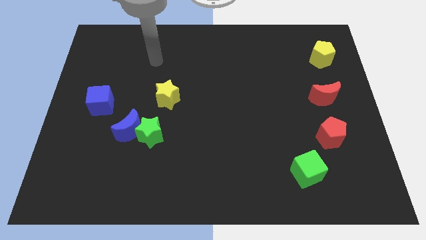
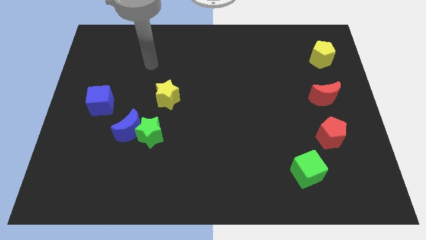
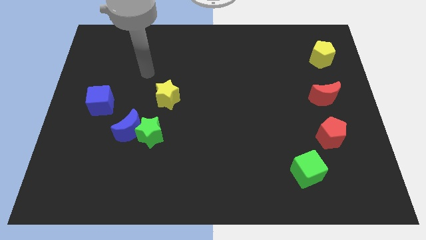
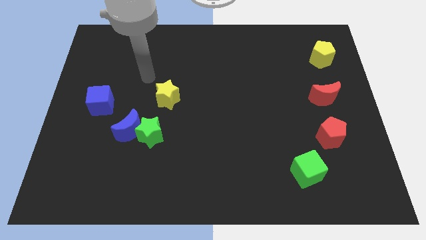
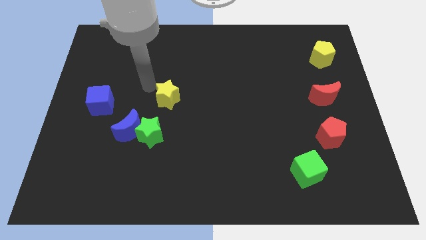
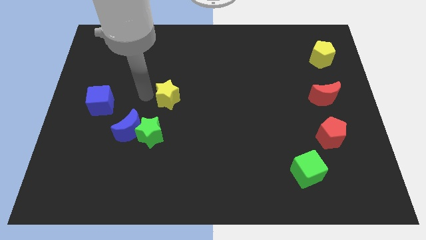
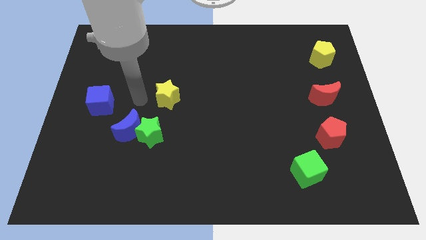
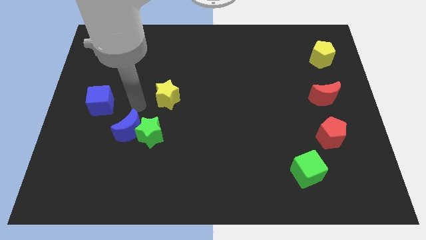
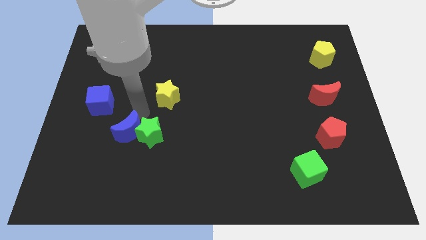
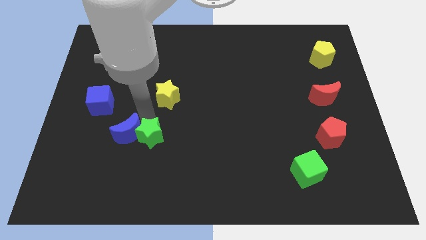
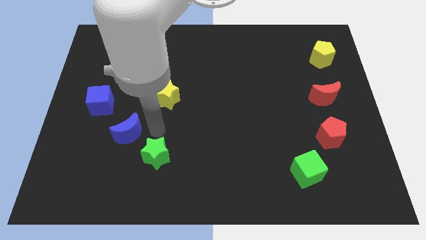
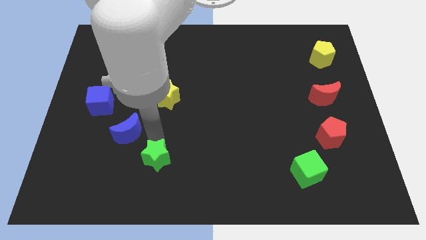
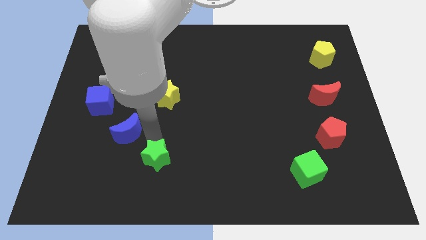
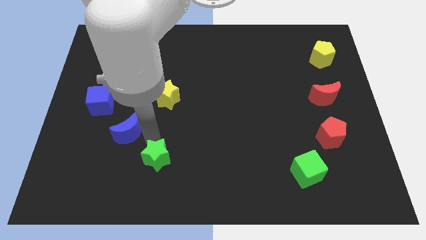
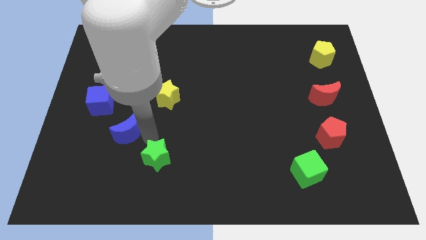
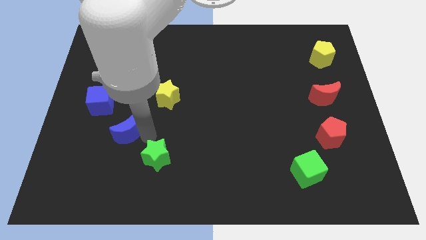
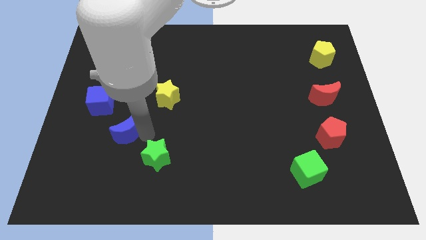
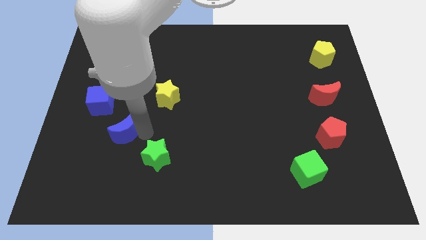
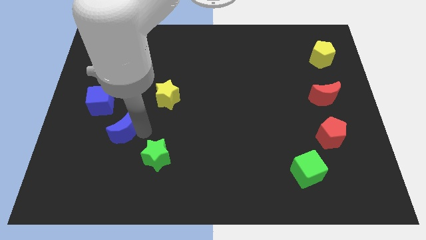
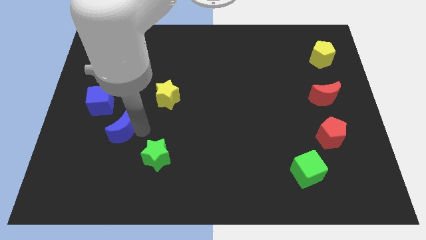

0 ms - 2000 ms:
move the blue moon away from the green star

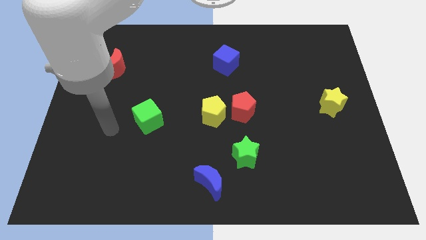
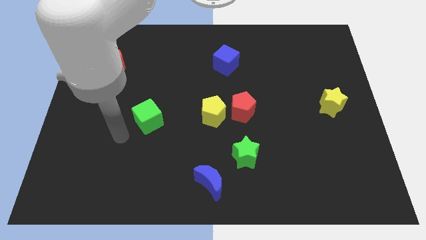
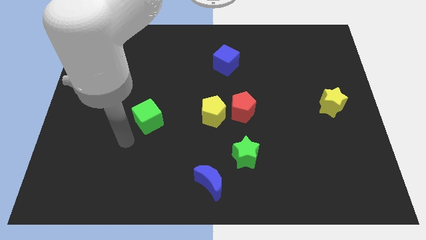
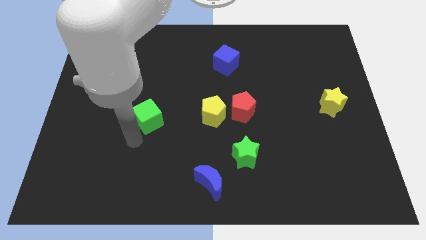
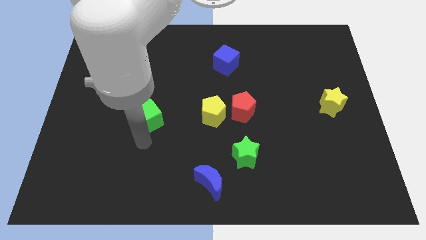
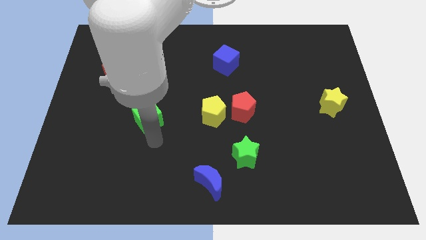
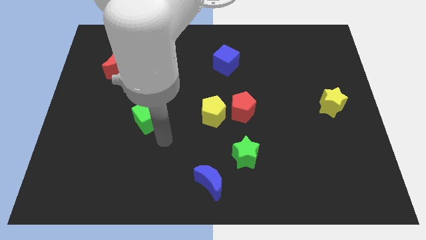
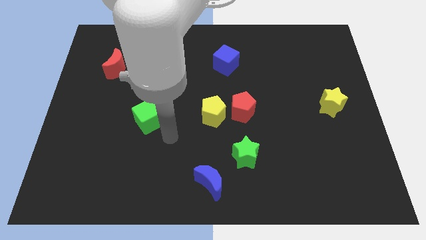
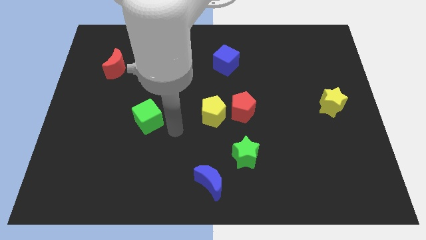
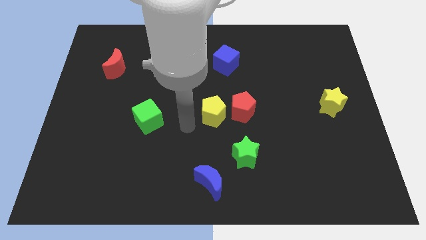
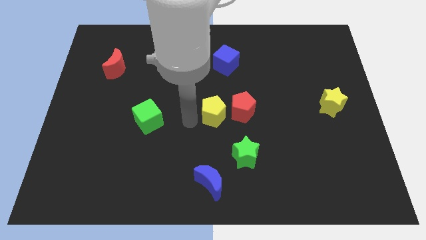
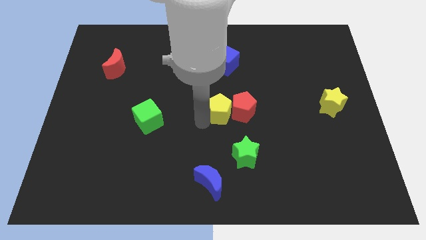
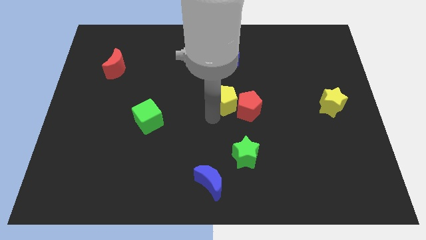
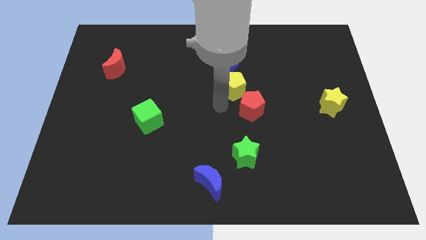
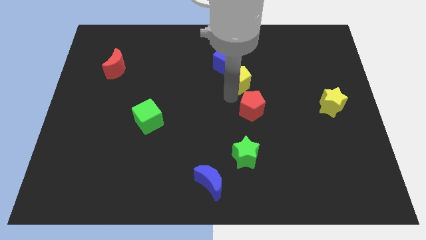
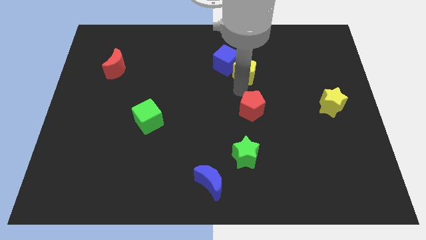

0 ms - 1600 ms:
move the red pentagon away from the yellow pentagon

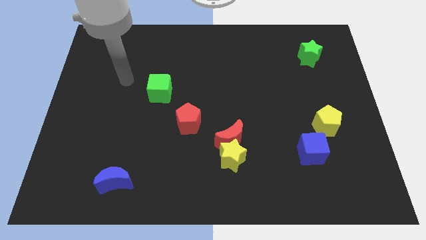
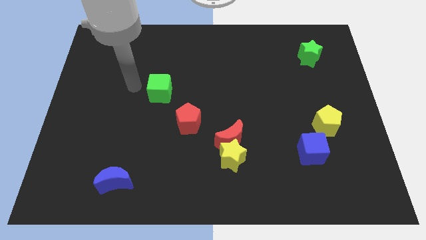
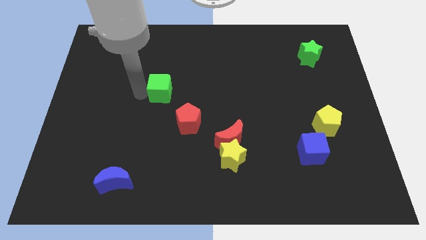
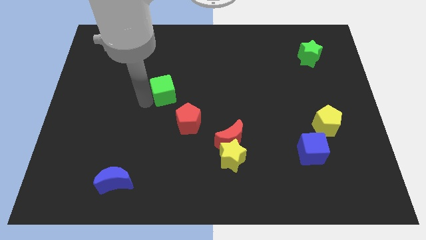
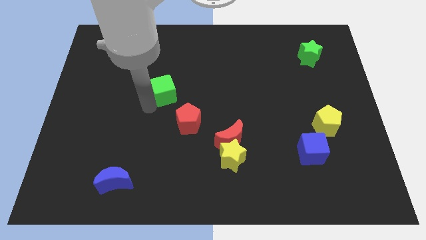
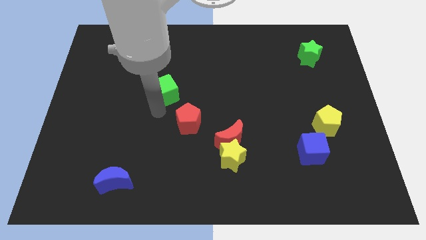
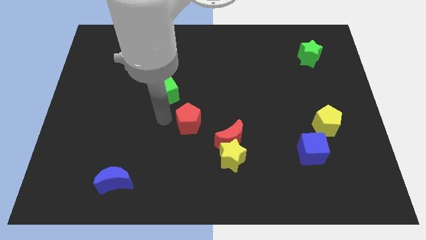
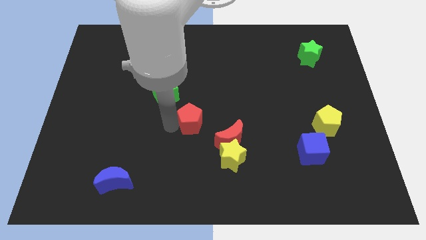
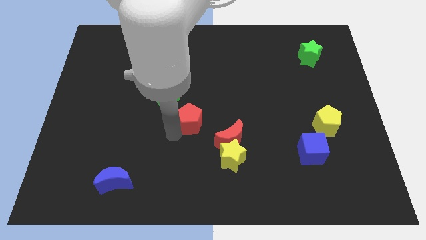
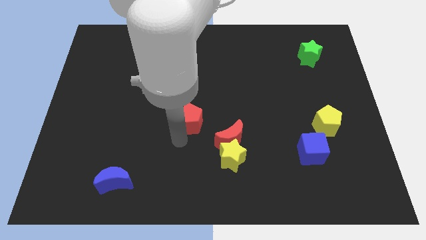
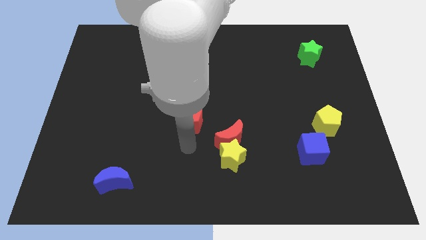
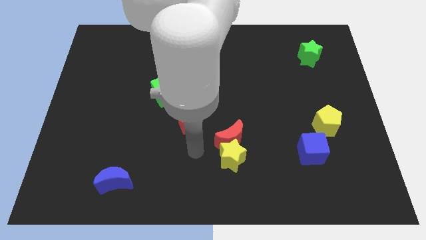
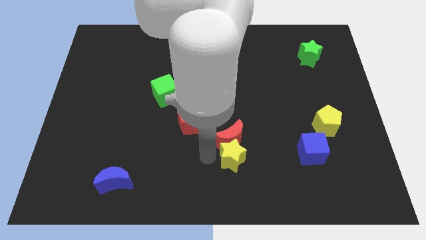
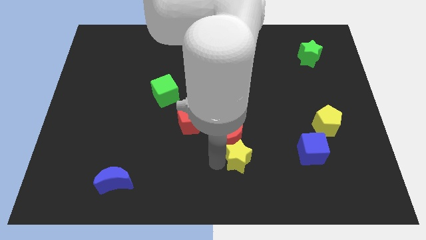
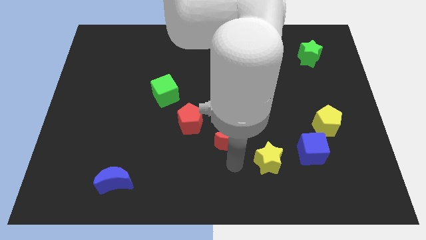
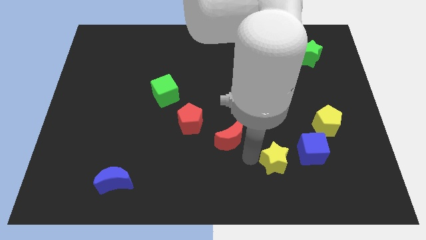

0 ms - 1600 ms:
move the red moon away from the yellow star

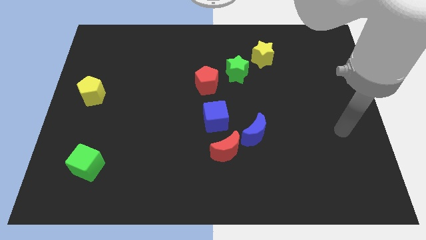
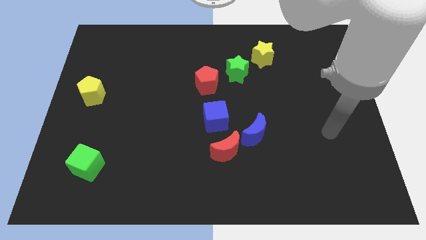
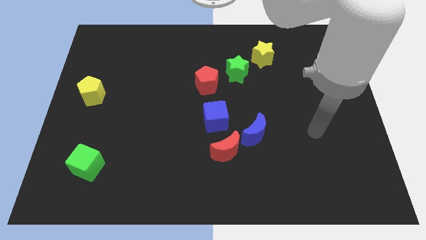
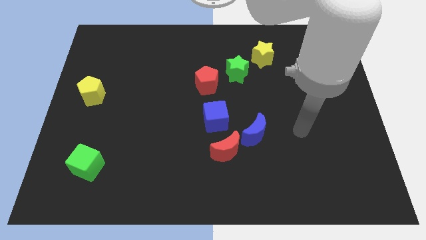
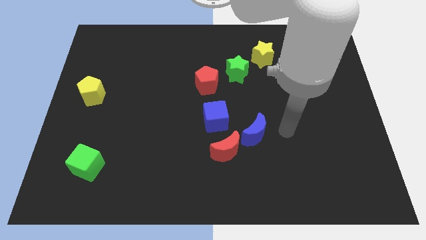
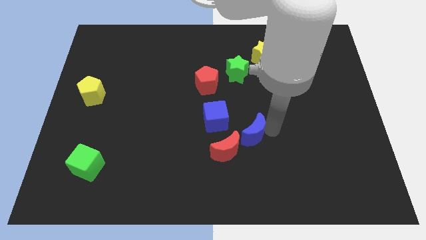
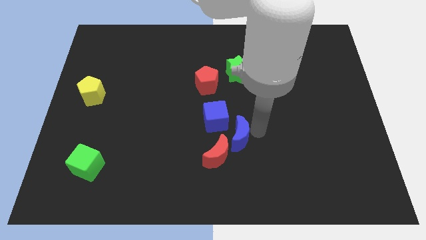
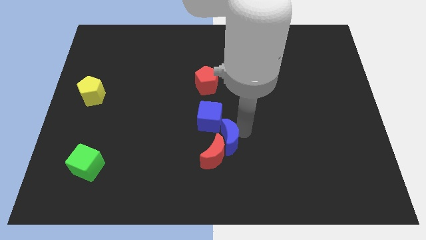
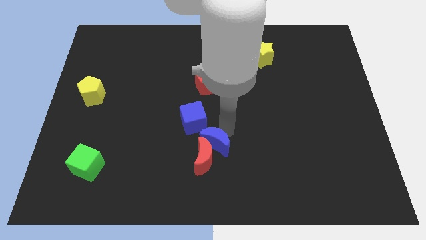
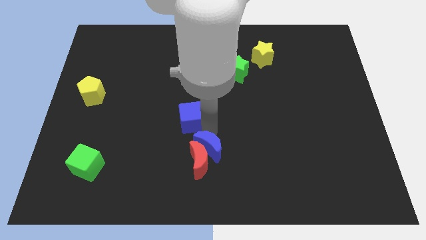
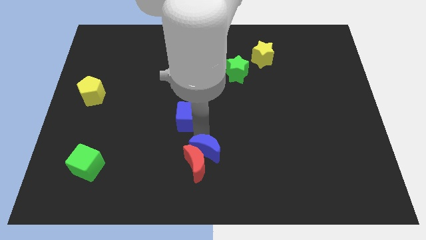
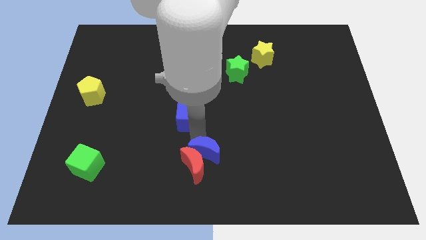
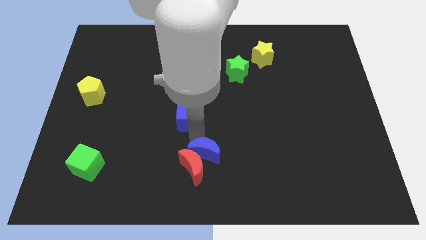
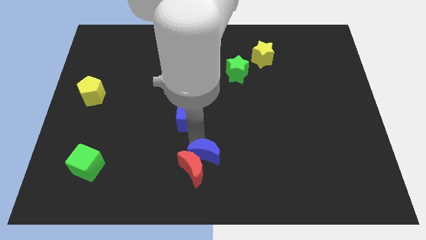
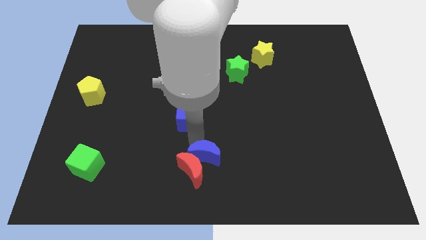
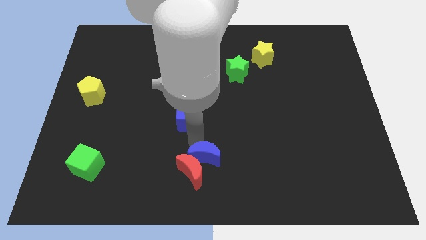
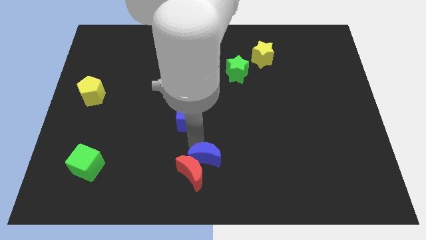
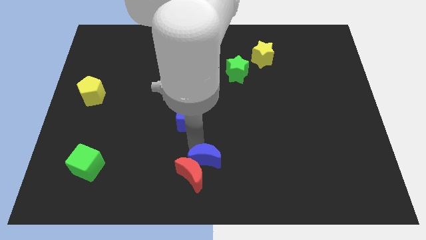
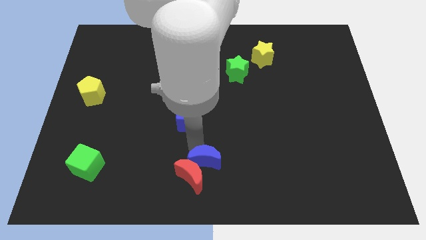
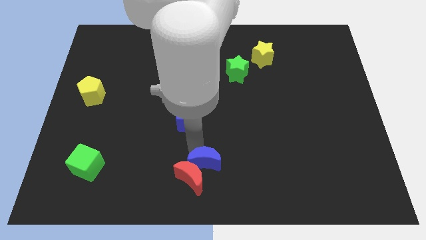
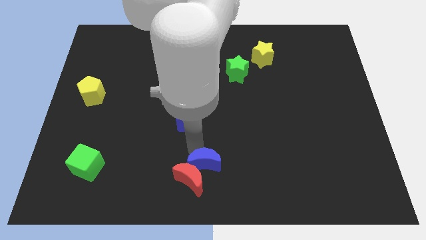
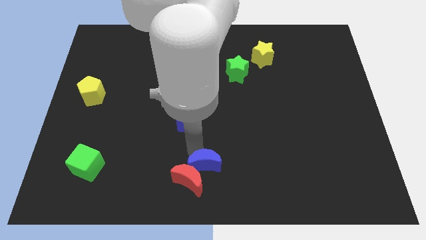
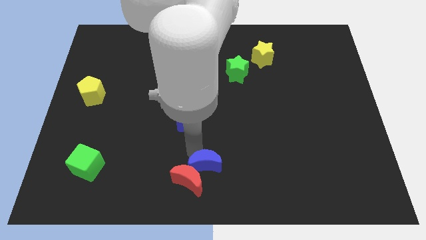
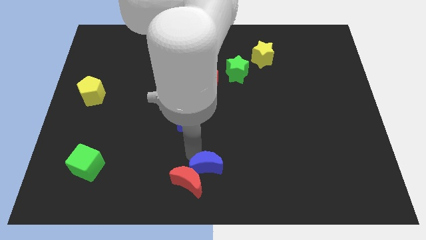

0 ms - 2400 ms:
move the red moon away from the blue moon and blue cube

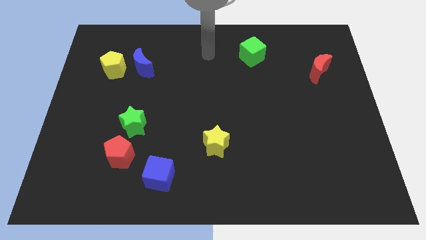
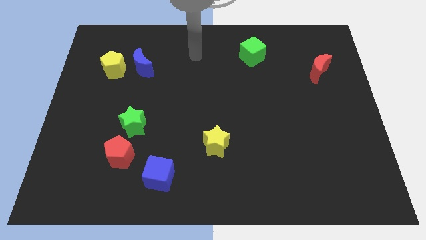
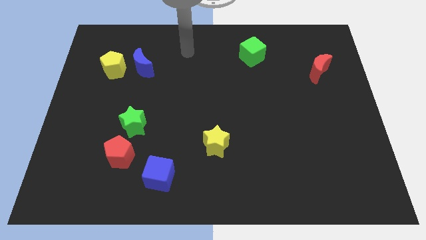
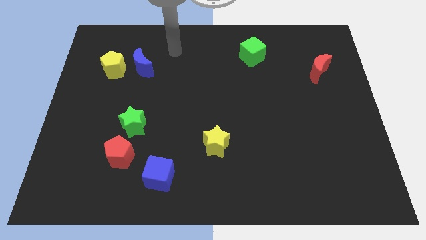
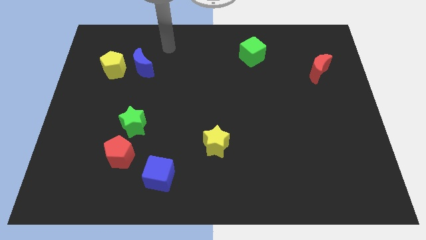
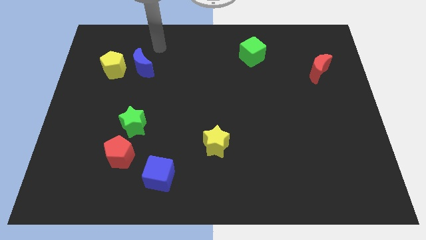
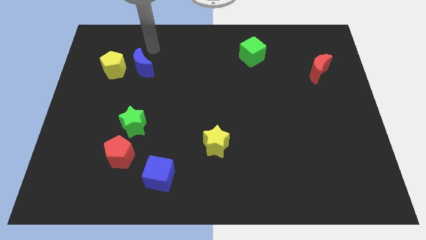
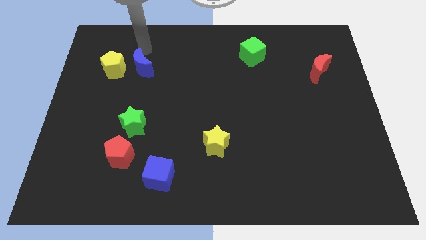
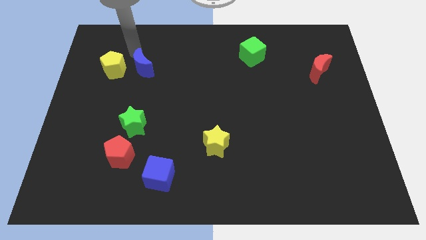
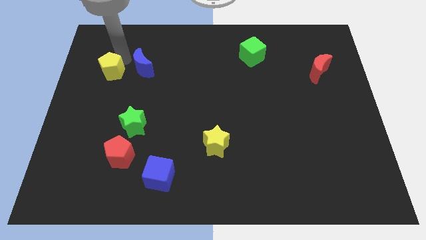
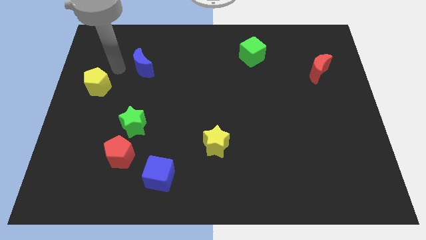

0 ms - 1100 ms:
move the blue moon away from the yellow pentagon

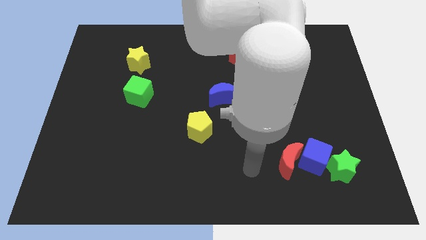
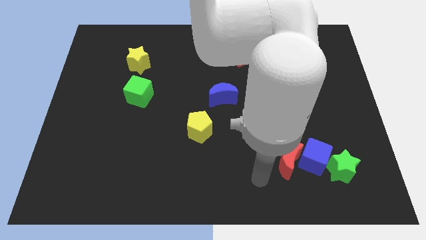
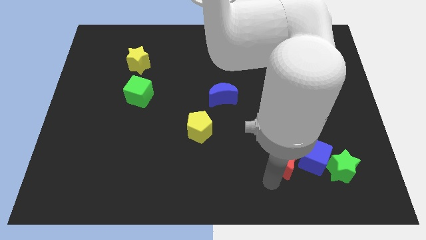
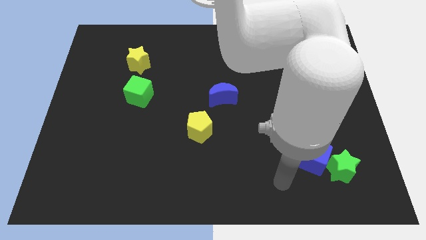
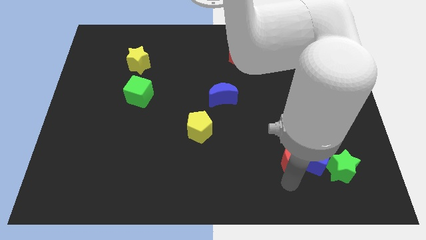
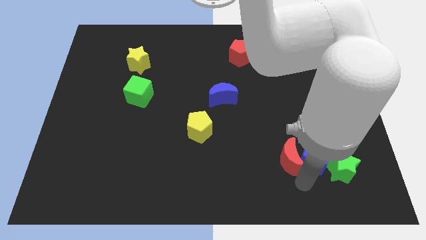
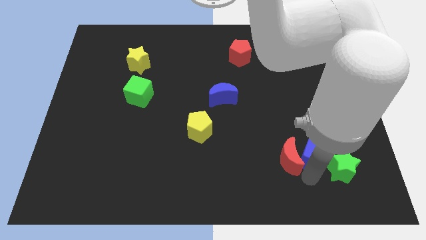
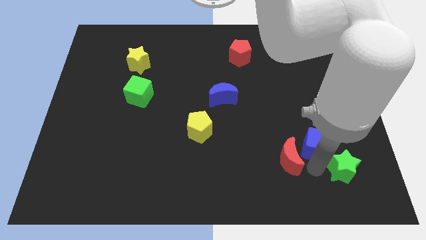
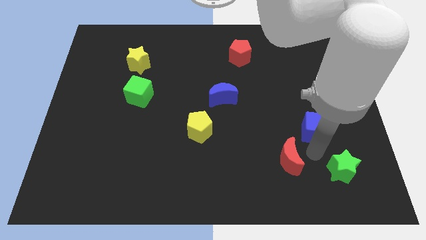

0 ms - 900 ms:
separate the red moon from the blue cube
